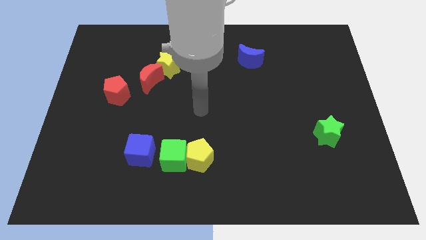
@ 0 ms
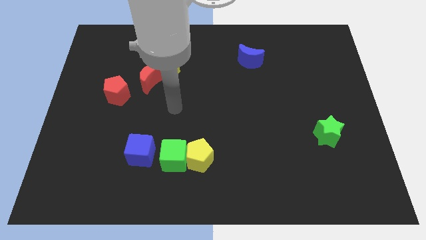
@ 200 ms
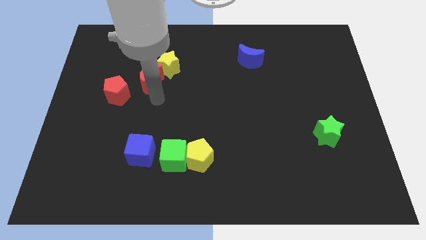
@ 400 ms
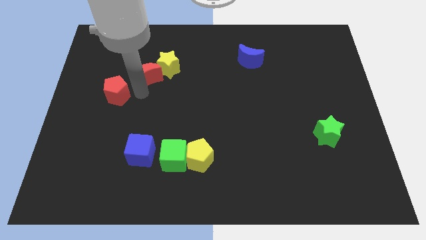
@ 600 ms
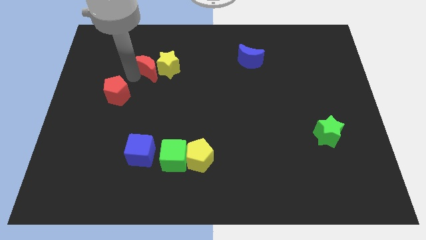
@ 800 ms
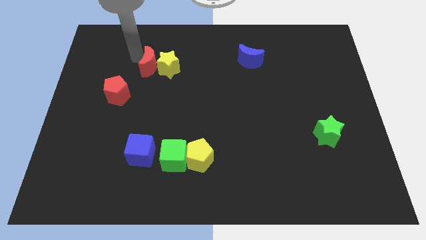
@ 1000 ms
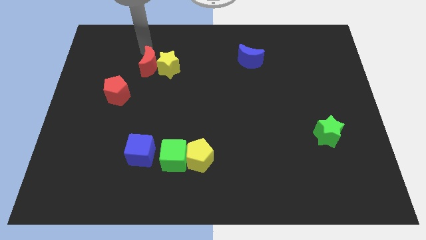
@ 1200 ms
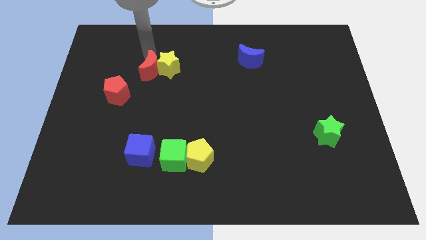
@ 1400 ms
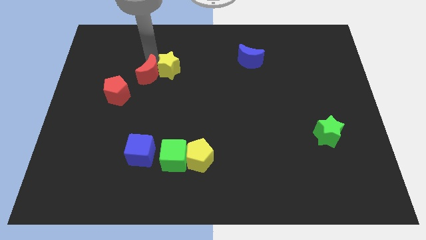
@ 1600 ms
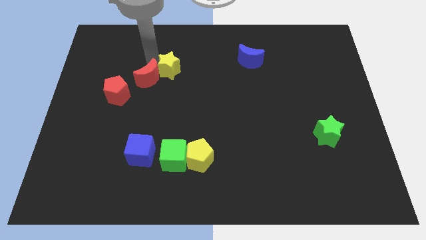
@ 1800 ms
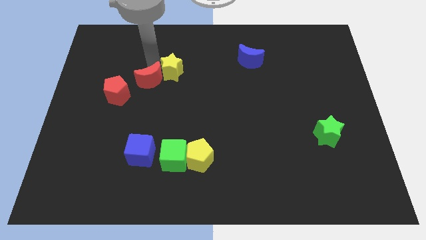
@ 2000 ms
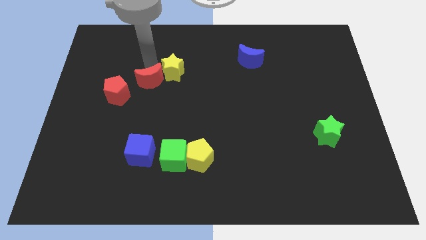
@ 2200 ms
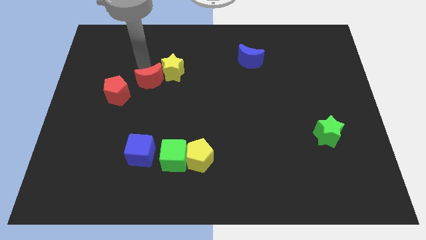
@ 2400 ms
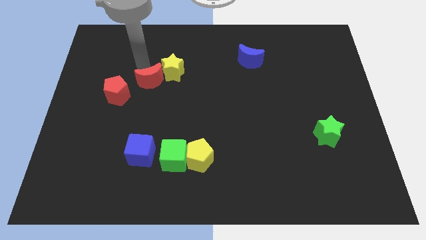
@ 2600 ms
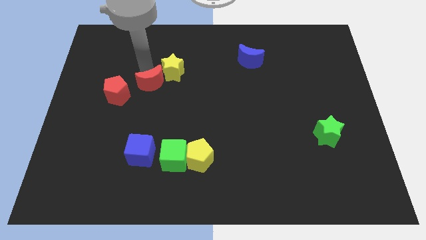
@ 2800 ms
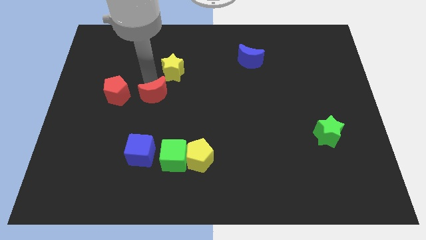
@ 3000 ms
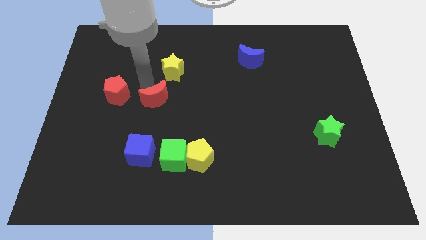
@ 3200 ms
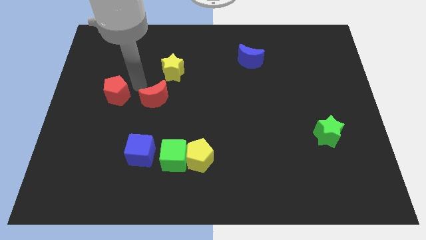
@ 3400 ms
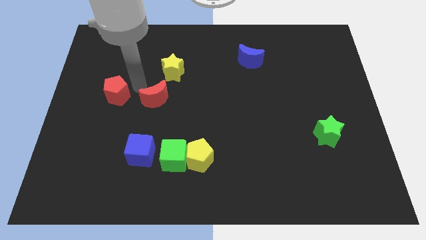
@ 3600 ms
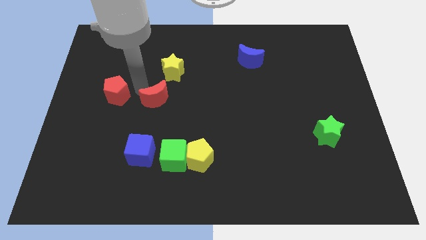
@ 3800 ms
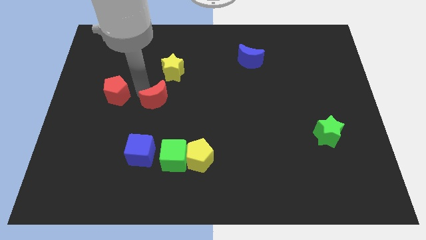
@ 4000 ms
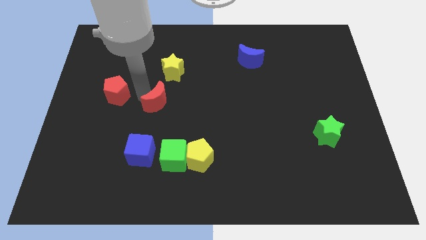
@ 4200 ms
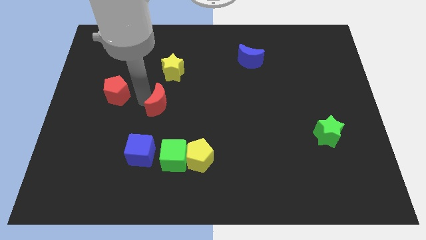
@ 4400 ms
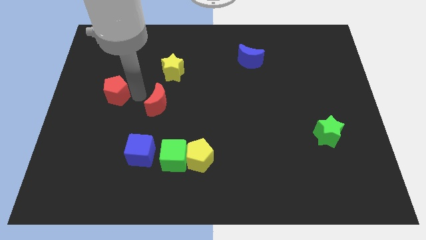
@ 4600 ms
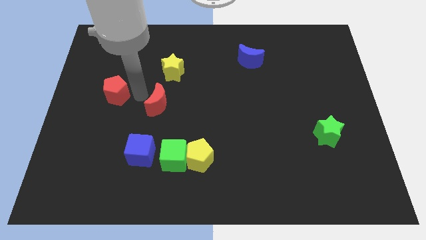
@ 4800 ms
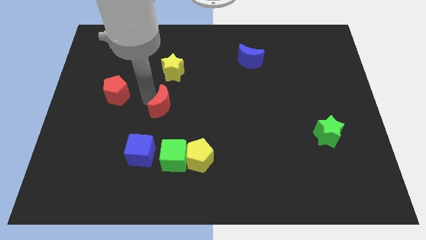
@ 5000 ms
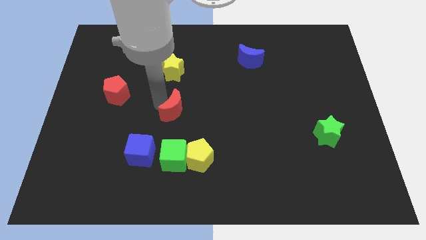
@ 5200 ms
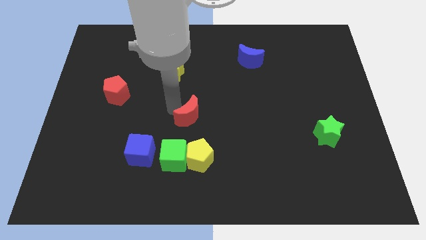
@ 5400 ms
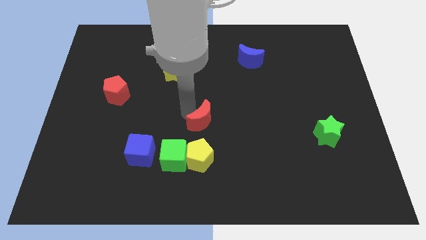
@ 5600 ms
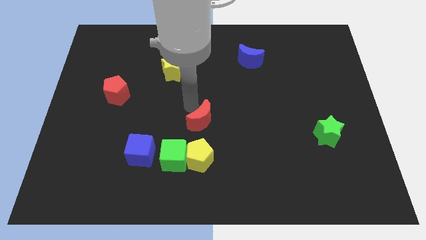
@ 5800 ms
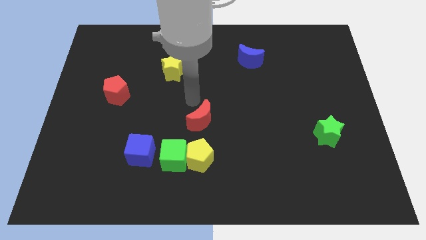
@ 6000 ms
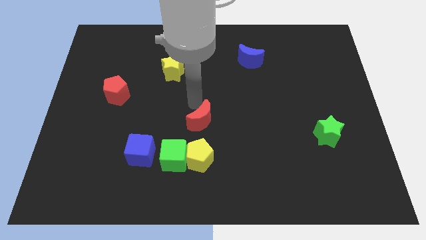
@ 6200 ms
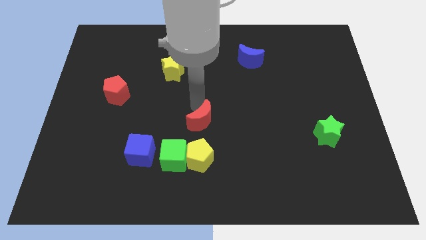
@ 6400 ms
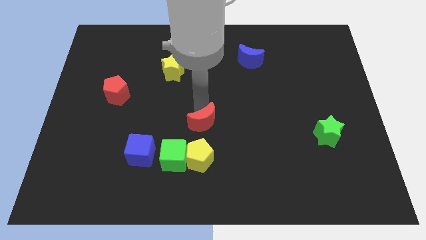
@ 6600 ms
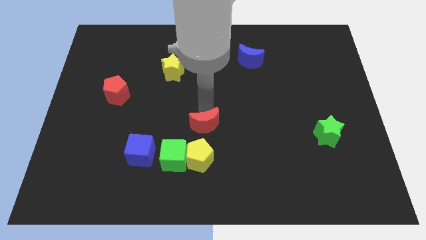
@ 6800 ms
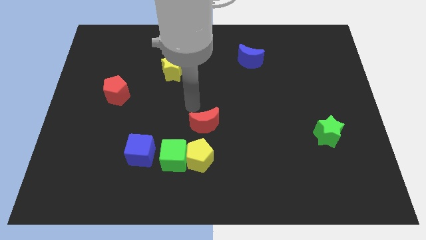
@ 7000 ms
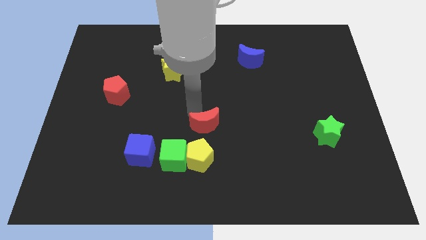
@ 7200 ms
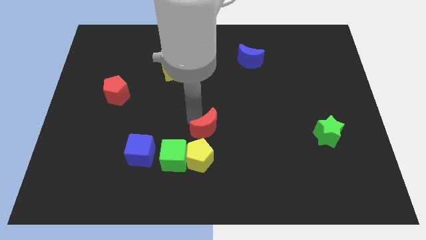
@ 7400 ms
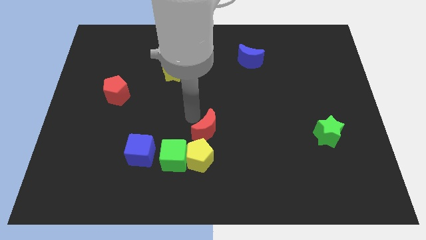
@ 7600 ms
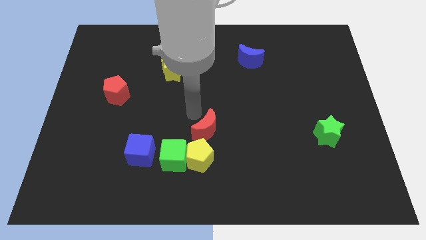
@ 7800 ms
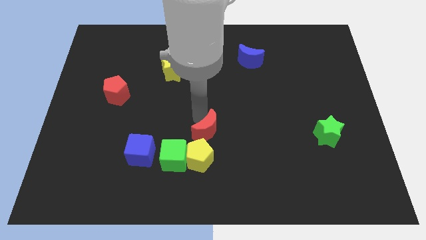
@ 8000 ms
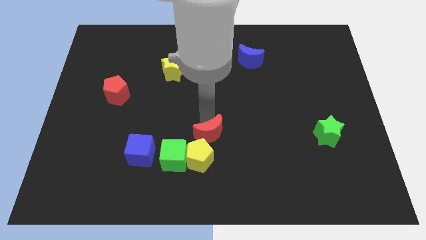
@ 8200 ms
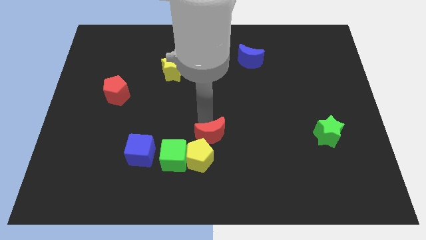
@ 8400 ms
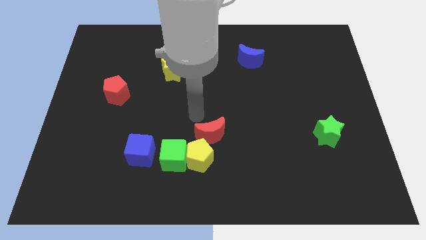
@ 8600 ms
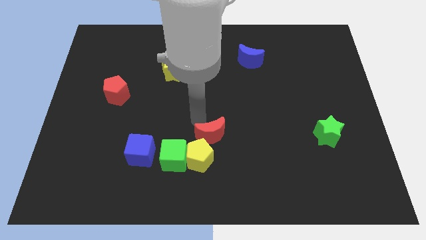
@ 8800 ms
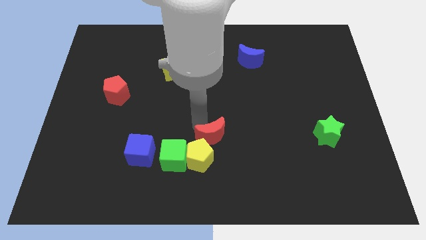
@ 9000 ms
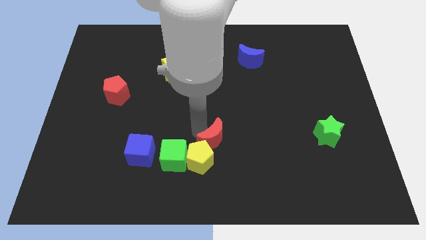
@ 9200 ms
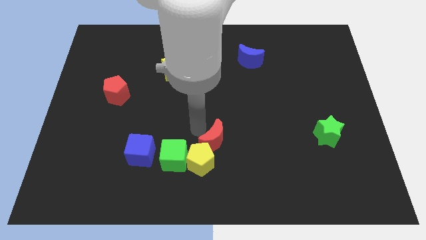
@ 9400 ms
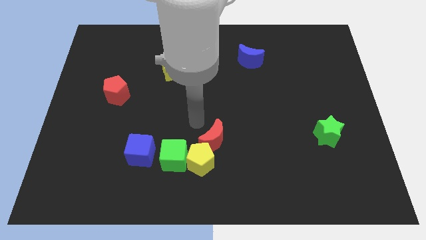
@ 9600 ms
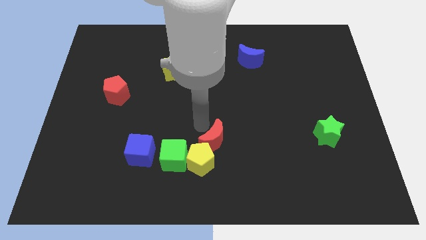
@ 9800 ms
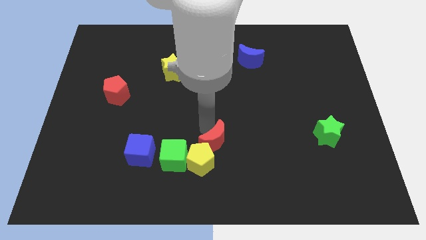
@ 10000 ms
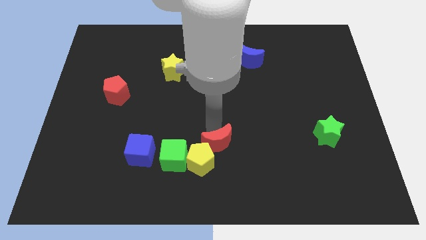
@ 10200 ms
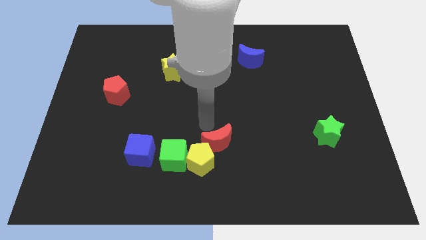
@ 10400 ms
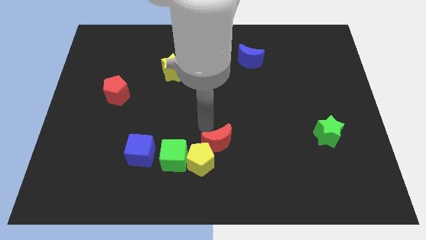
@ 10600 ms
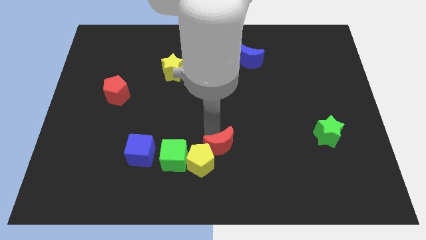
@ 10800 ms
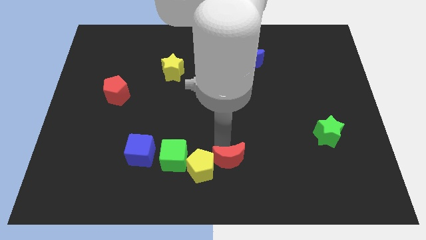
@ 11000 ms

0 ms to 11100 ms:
push the red moon to the bottom

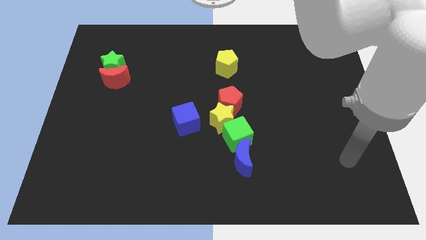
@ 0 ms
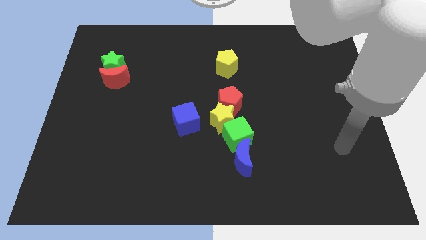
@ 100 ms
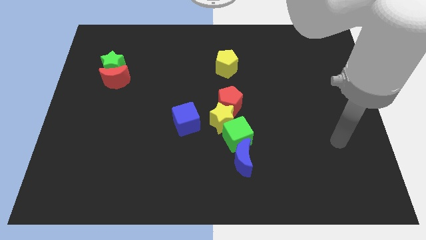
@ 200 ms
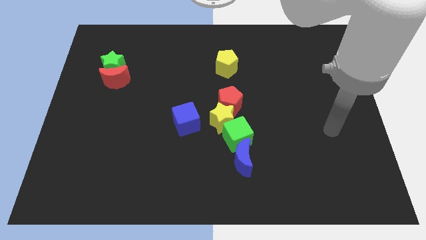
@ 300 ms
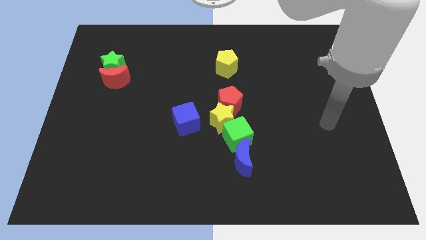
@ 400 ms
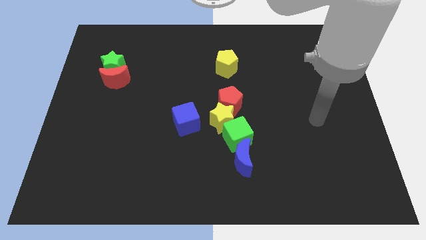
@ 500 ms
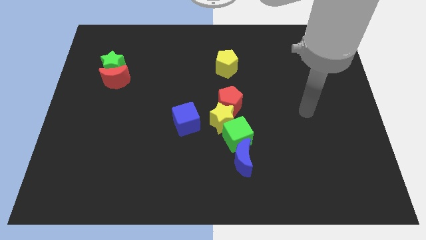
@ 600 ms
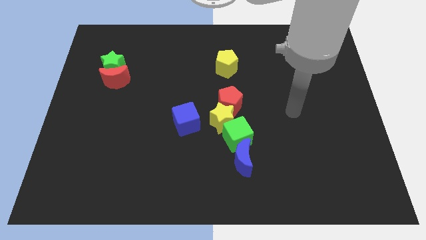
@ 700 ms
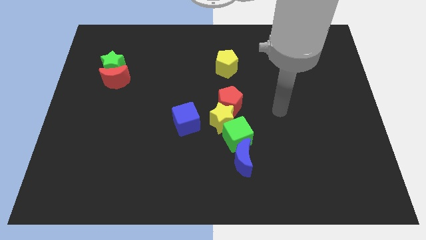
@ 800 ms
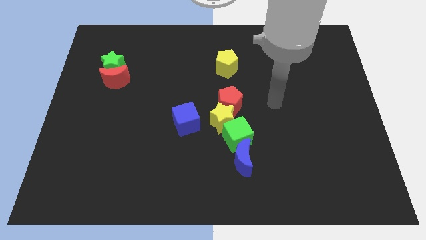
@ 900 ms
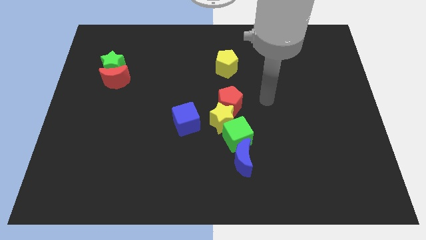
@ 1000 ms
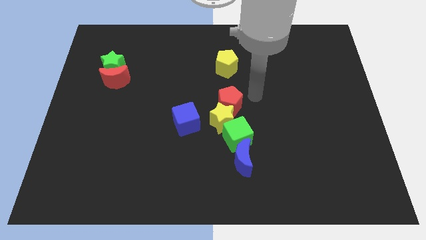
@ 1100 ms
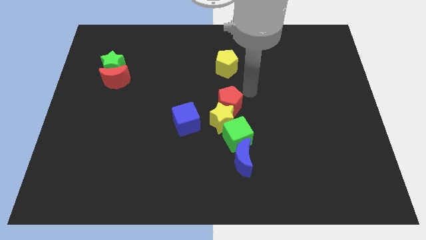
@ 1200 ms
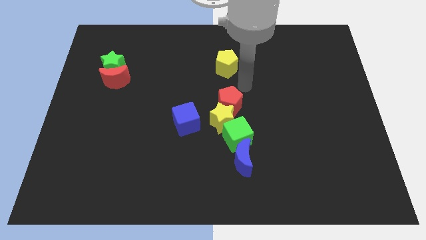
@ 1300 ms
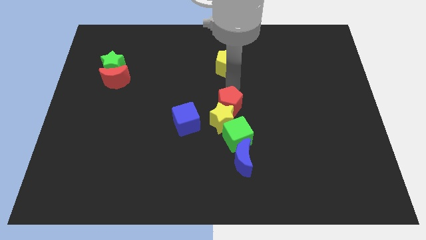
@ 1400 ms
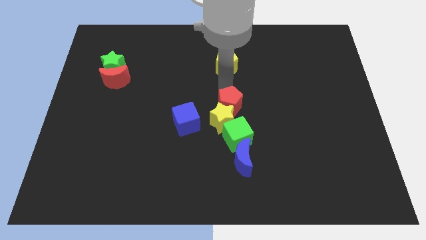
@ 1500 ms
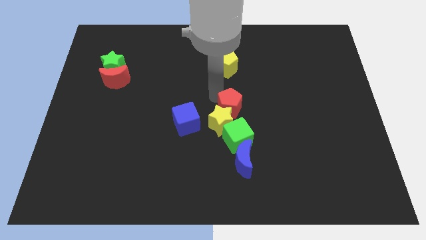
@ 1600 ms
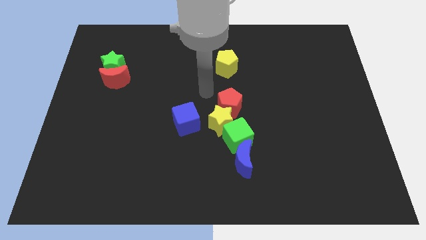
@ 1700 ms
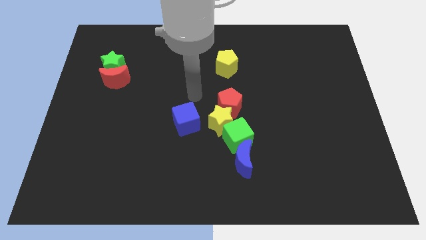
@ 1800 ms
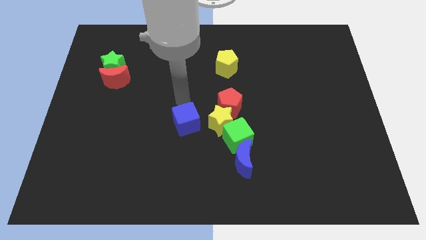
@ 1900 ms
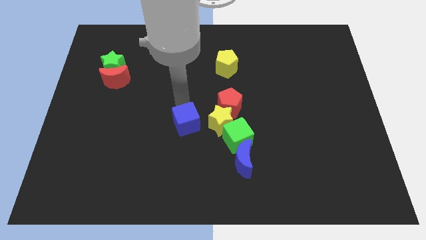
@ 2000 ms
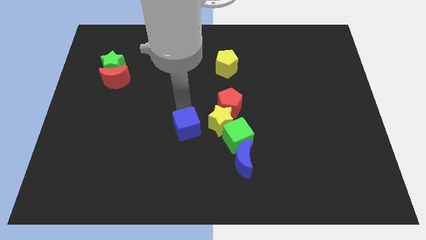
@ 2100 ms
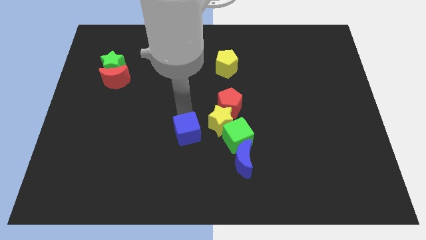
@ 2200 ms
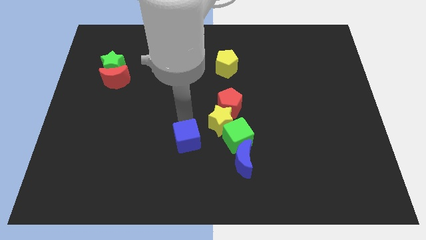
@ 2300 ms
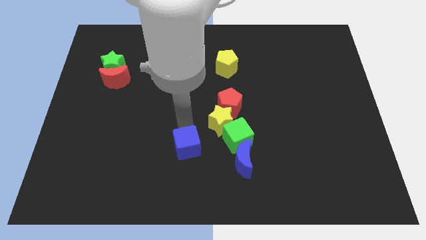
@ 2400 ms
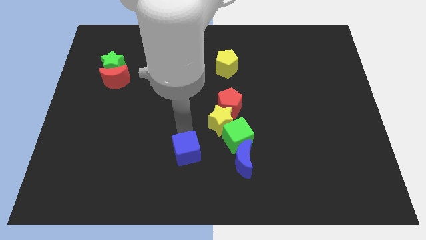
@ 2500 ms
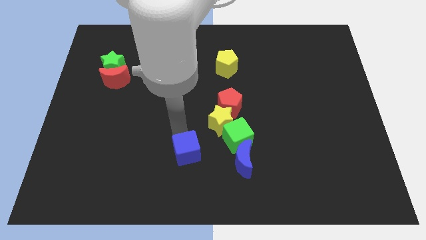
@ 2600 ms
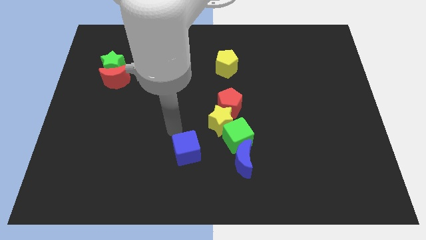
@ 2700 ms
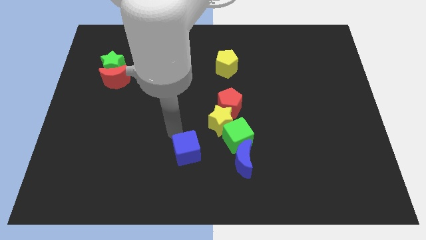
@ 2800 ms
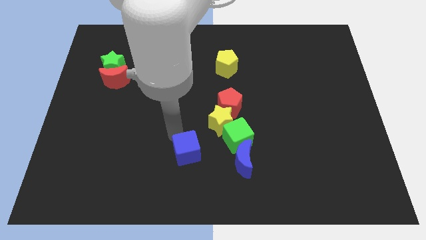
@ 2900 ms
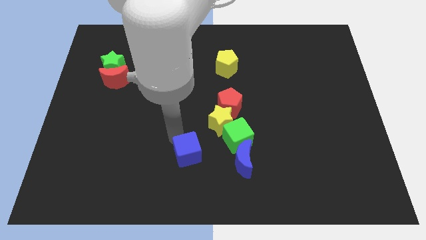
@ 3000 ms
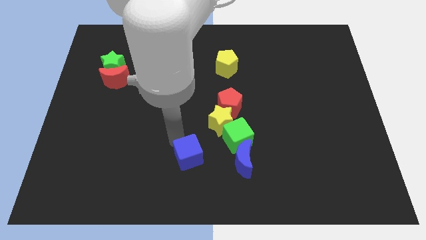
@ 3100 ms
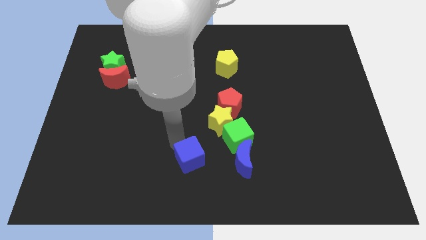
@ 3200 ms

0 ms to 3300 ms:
slide the blue cube to the bottom
